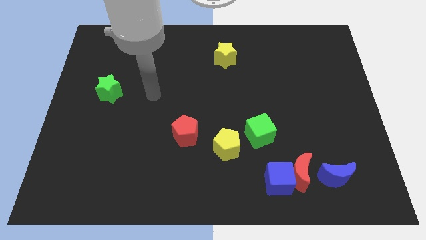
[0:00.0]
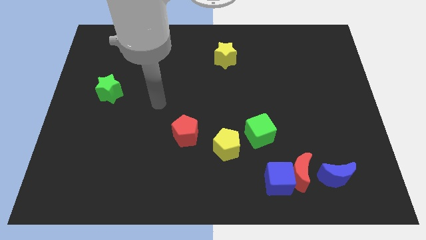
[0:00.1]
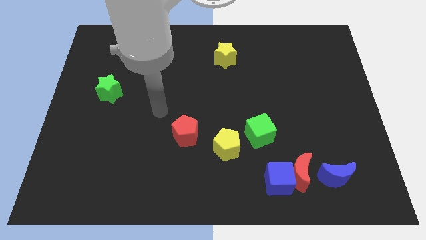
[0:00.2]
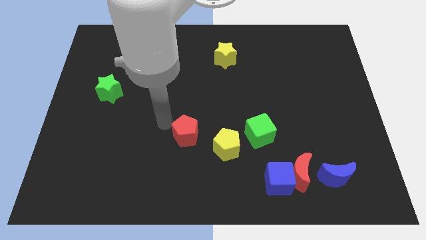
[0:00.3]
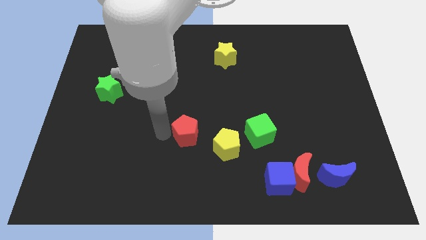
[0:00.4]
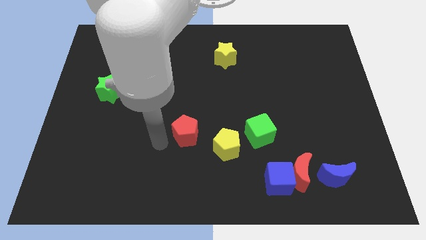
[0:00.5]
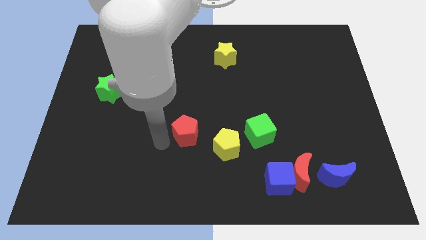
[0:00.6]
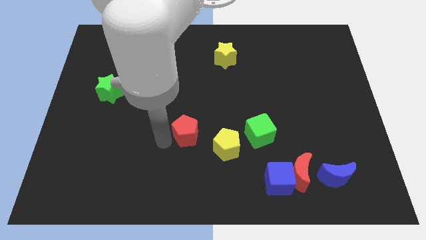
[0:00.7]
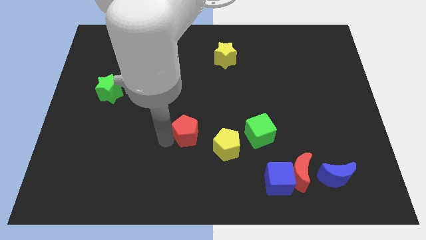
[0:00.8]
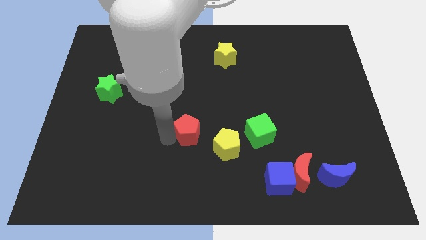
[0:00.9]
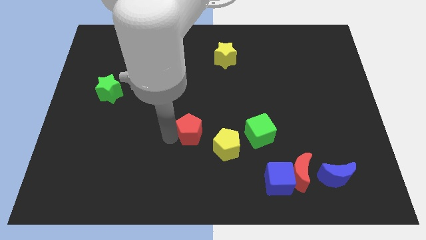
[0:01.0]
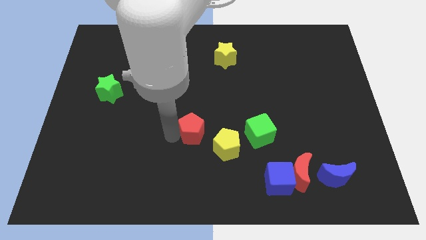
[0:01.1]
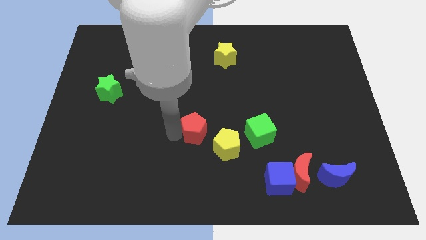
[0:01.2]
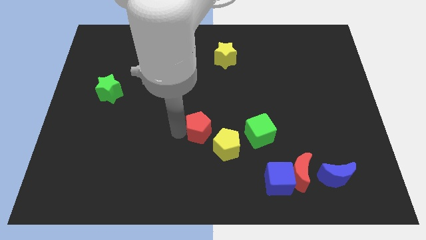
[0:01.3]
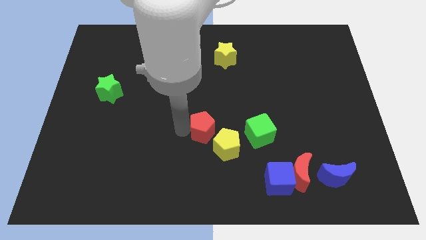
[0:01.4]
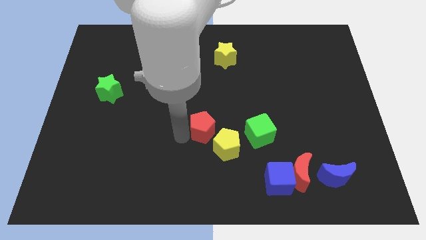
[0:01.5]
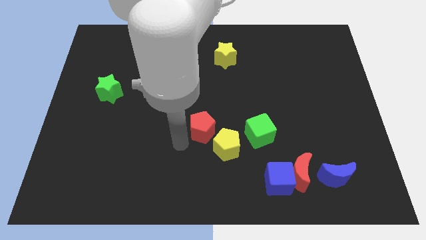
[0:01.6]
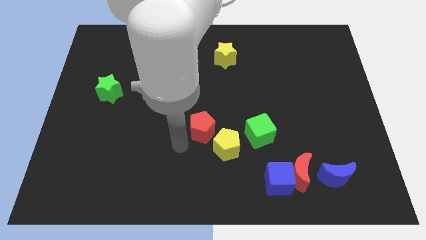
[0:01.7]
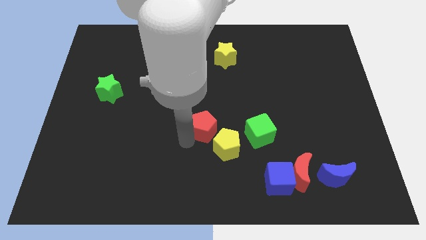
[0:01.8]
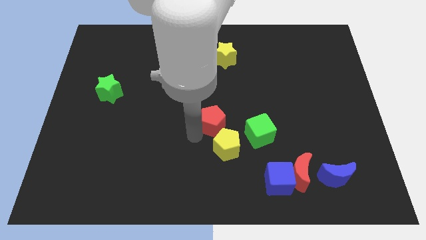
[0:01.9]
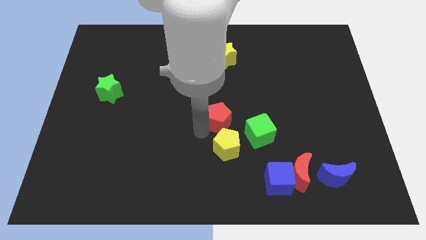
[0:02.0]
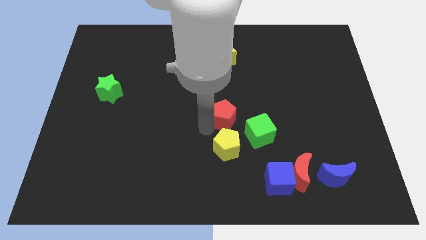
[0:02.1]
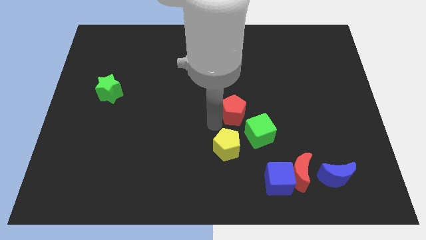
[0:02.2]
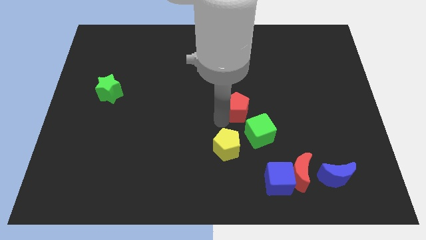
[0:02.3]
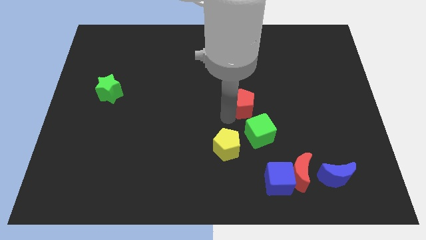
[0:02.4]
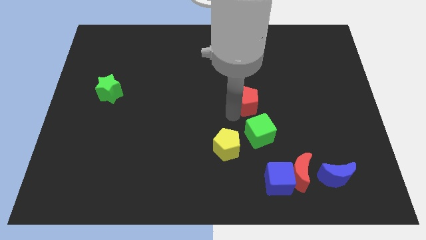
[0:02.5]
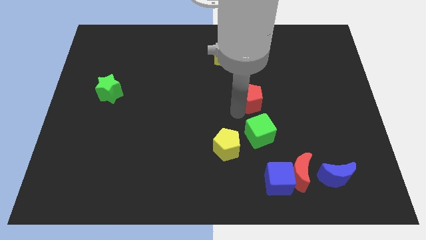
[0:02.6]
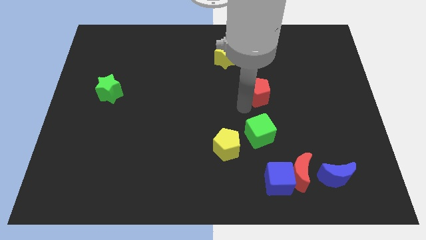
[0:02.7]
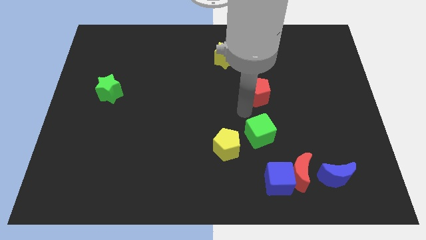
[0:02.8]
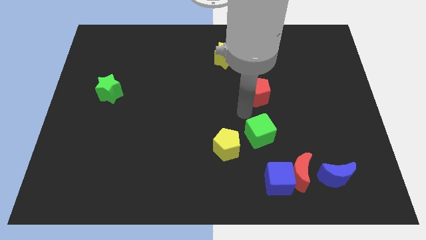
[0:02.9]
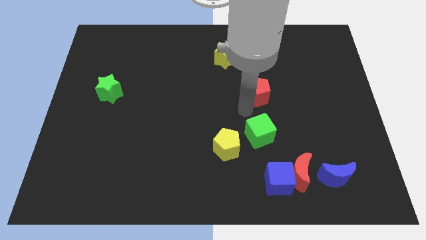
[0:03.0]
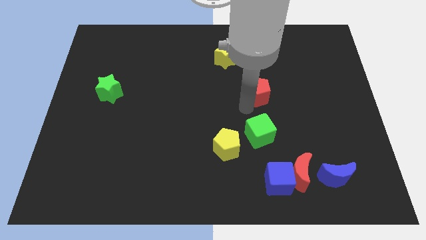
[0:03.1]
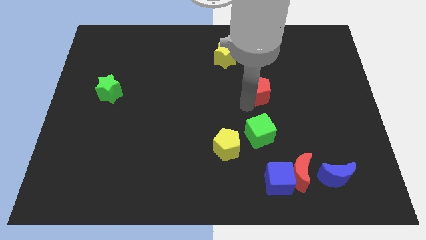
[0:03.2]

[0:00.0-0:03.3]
move the red pentagon diagonally up and to the right

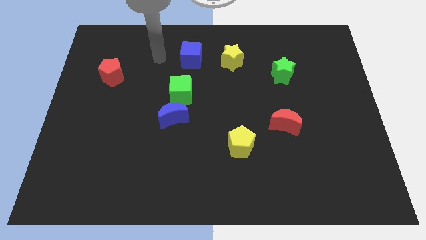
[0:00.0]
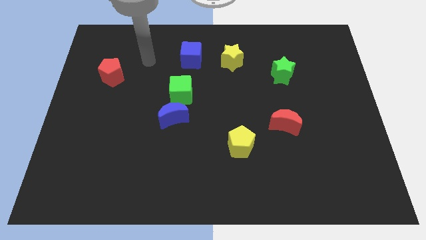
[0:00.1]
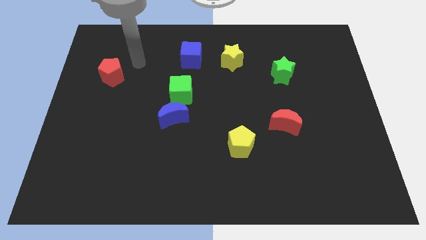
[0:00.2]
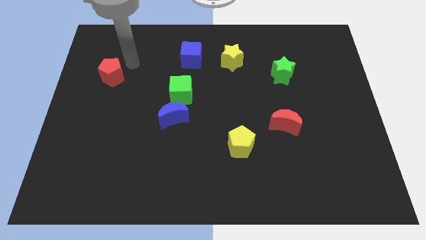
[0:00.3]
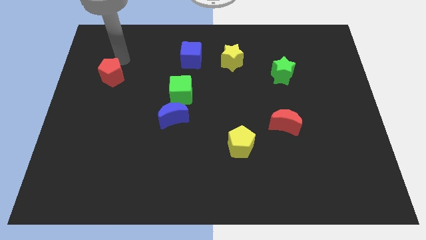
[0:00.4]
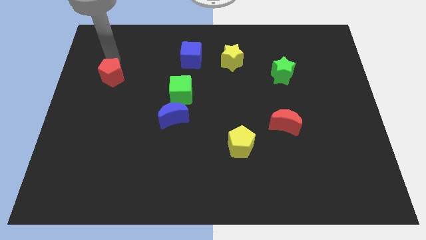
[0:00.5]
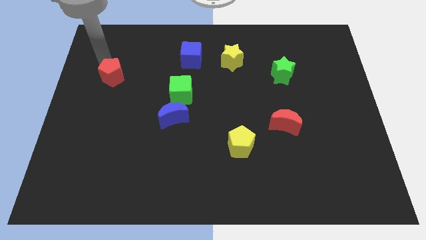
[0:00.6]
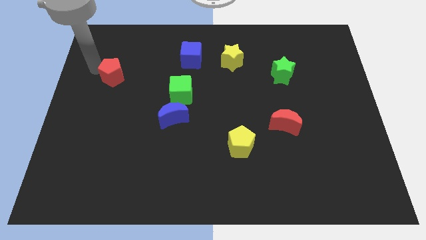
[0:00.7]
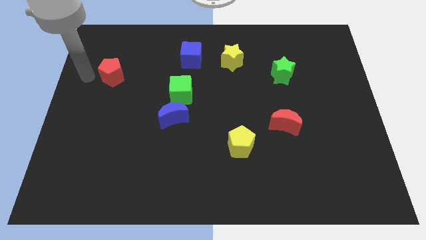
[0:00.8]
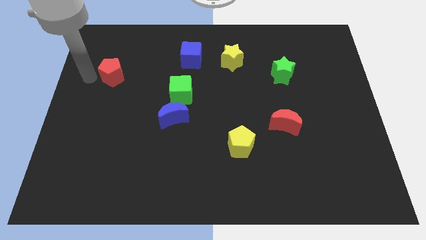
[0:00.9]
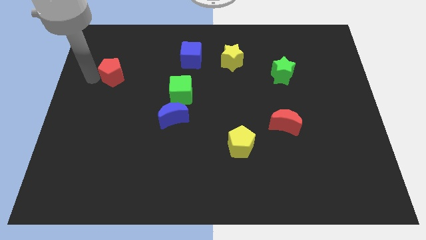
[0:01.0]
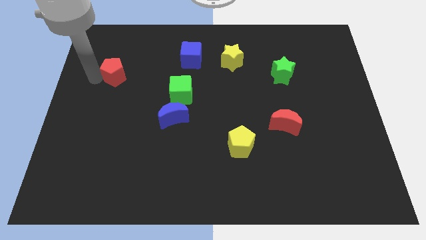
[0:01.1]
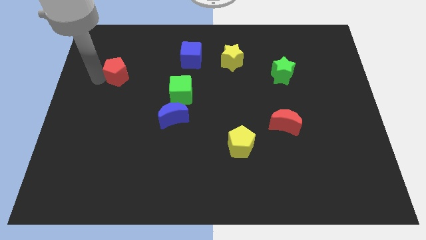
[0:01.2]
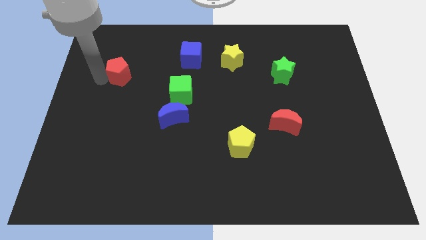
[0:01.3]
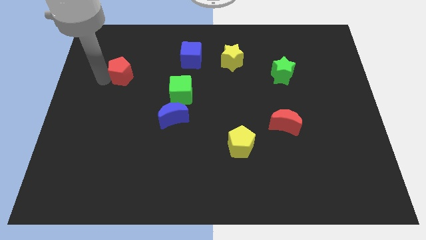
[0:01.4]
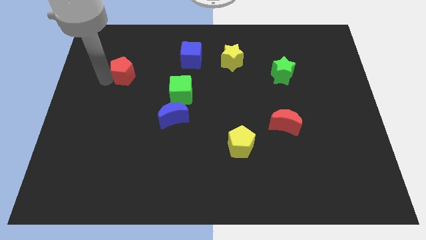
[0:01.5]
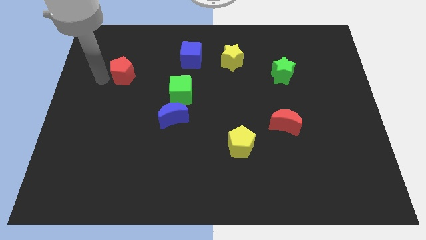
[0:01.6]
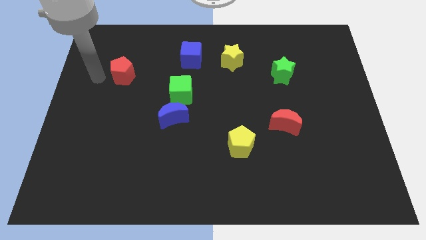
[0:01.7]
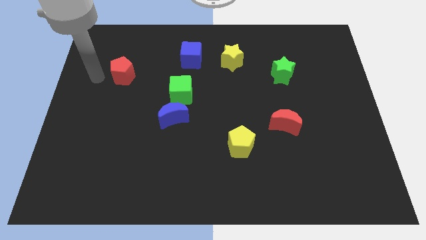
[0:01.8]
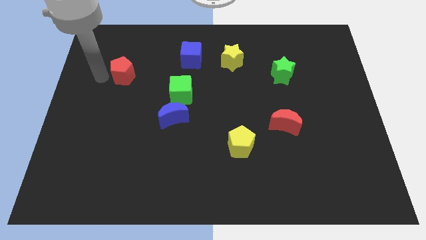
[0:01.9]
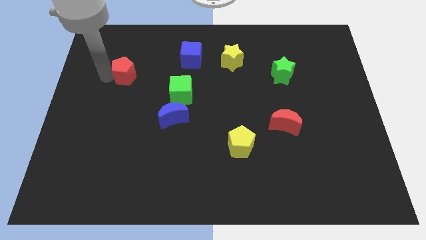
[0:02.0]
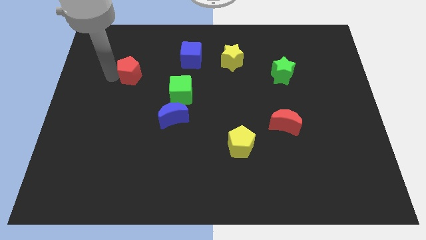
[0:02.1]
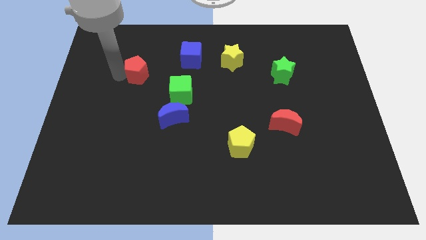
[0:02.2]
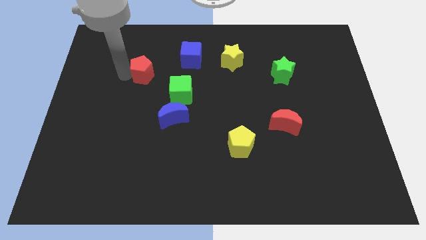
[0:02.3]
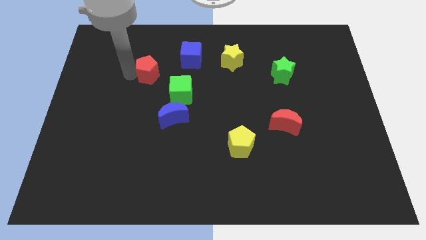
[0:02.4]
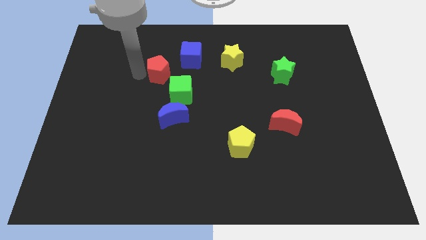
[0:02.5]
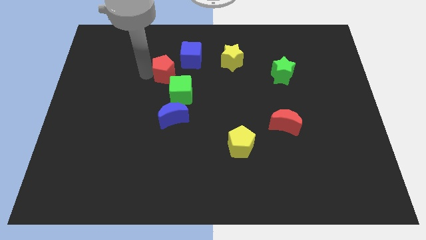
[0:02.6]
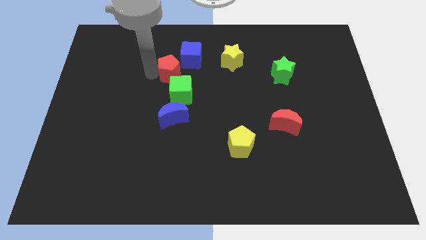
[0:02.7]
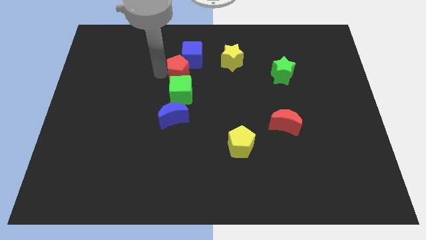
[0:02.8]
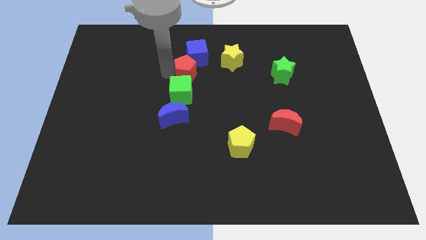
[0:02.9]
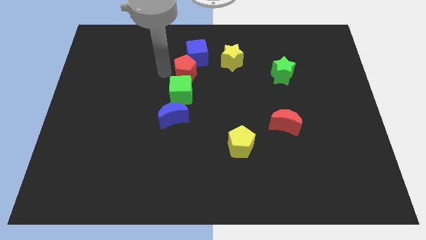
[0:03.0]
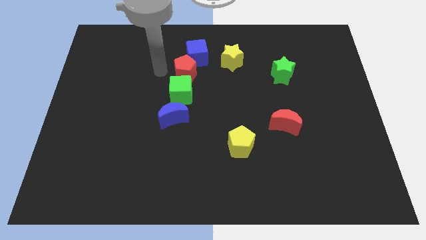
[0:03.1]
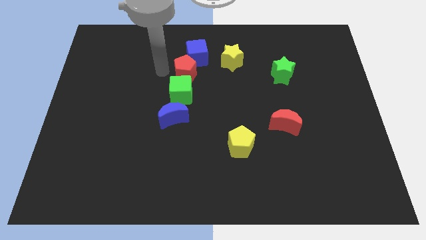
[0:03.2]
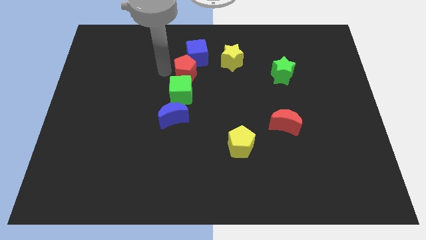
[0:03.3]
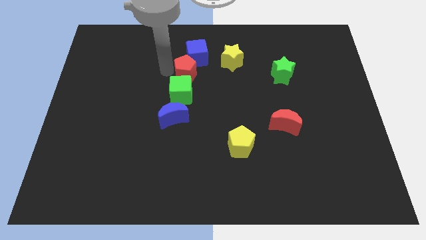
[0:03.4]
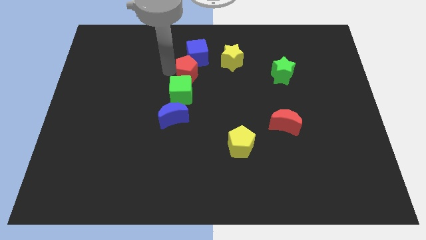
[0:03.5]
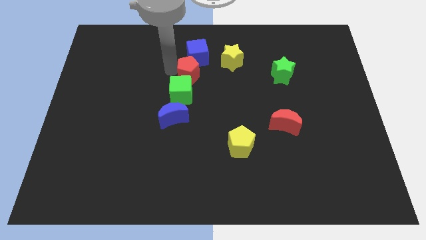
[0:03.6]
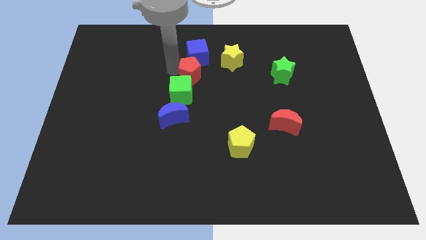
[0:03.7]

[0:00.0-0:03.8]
slide the red pentagon right

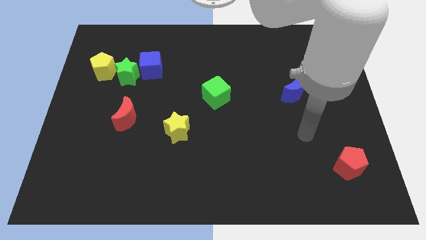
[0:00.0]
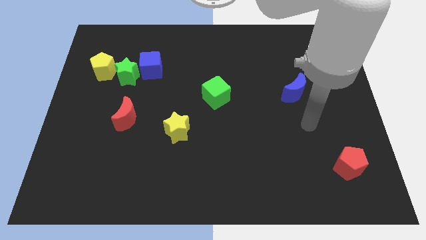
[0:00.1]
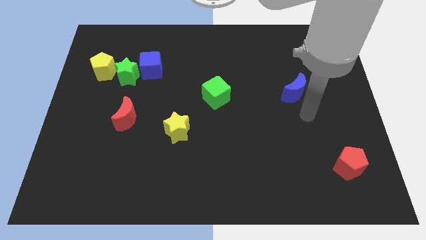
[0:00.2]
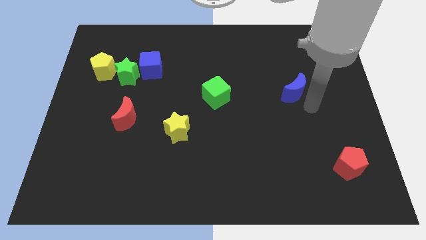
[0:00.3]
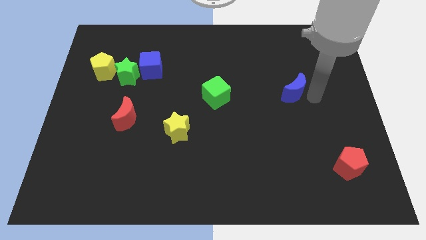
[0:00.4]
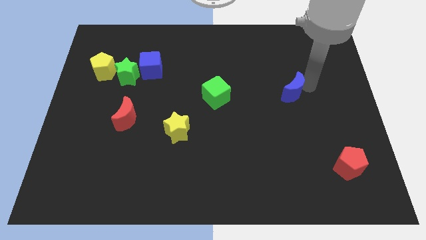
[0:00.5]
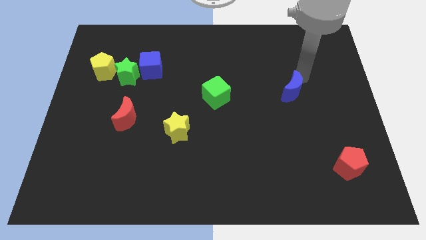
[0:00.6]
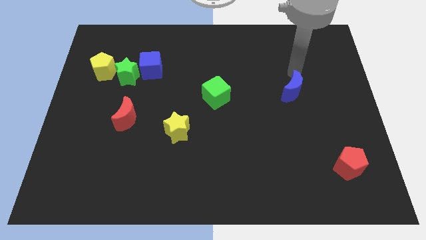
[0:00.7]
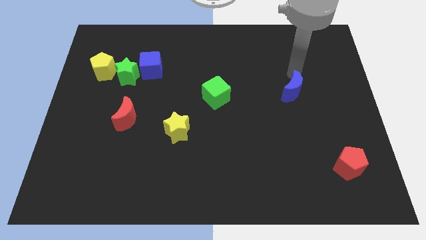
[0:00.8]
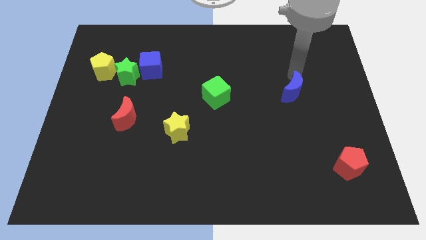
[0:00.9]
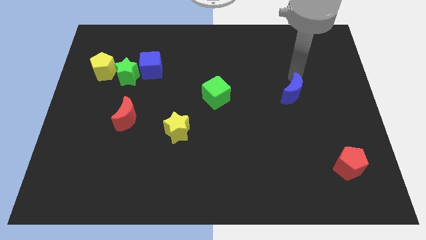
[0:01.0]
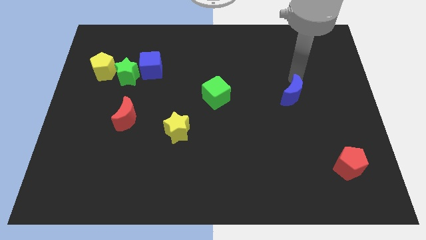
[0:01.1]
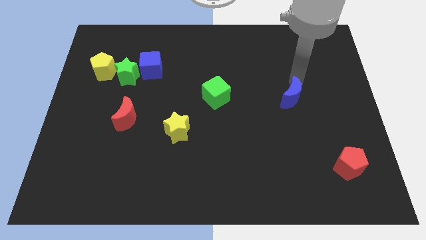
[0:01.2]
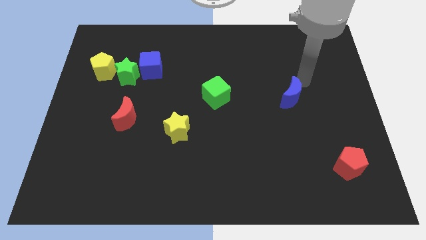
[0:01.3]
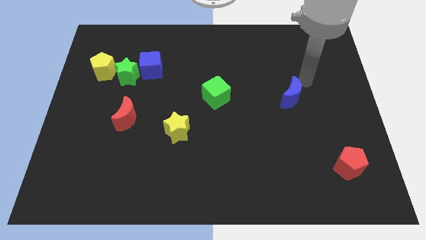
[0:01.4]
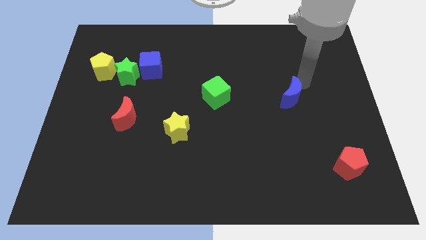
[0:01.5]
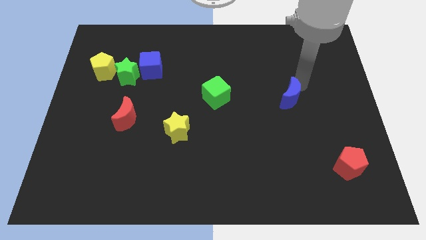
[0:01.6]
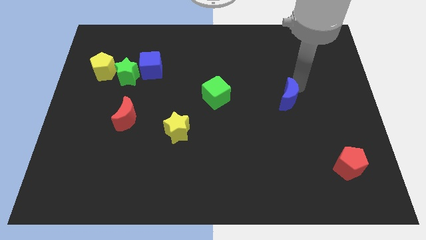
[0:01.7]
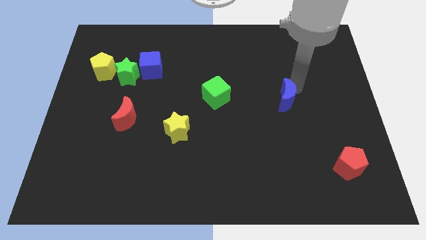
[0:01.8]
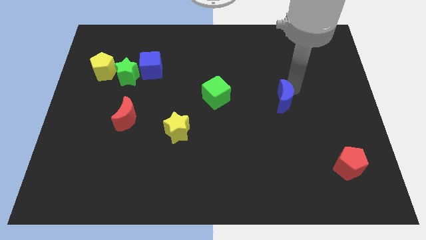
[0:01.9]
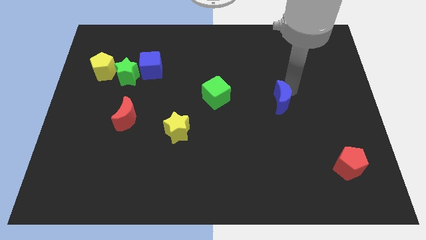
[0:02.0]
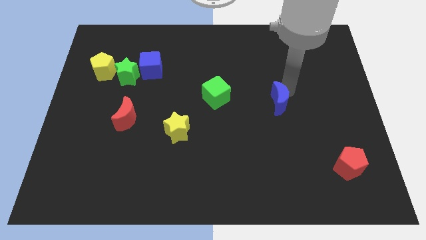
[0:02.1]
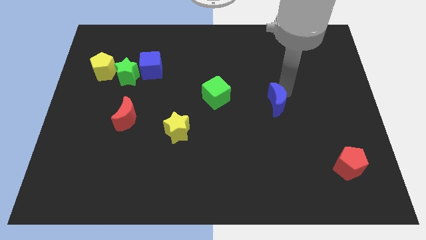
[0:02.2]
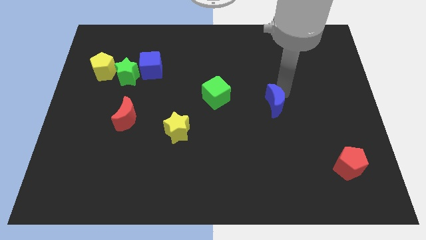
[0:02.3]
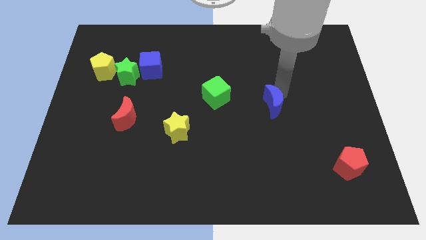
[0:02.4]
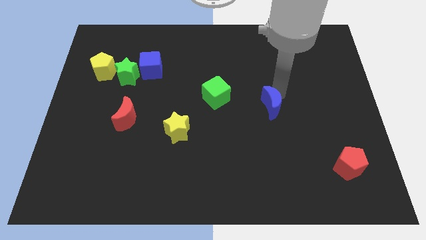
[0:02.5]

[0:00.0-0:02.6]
slightly slide the blue moon down and then to the left
